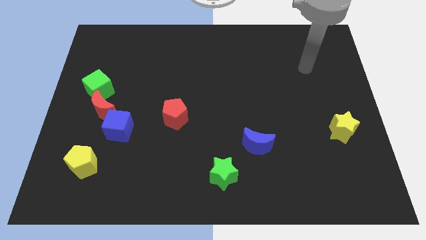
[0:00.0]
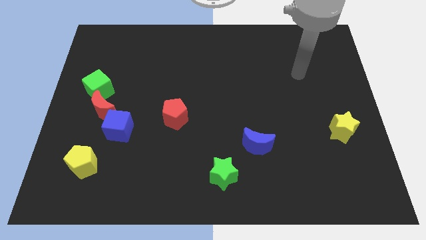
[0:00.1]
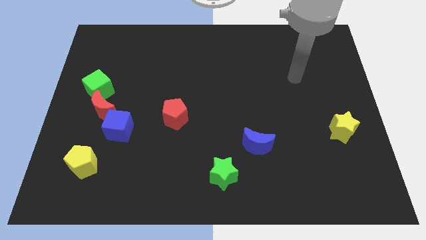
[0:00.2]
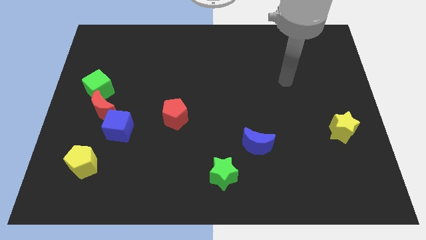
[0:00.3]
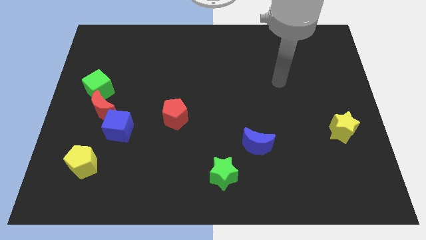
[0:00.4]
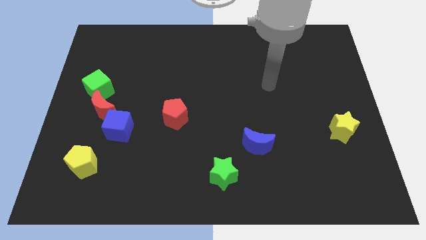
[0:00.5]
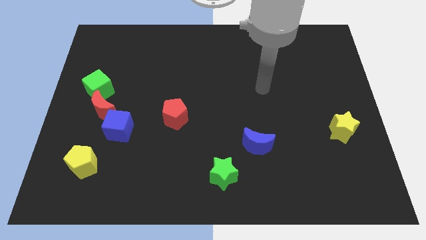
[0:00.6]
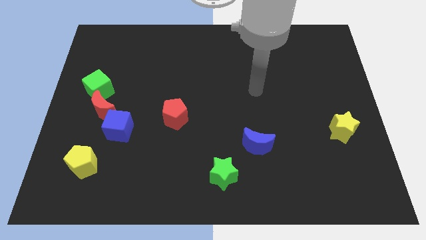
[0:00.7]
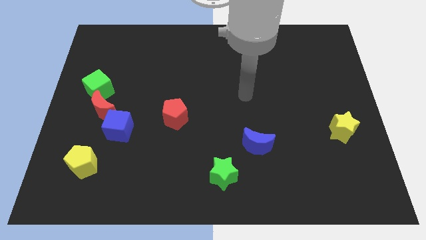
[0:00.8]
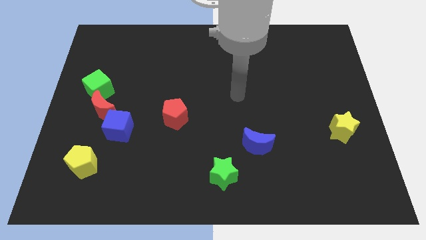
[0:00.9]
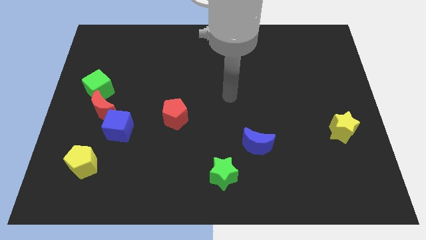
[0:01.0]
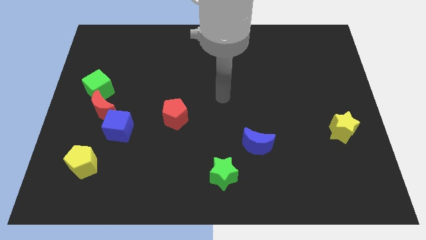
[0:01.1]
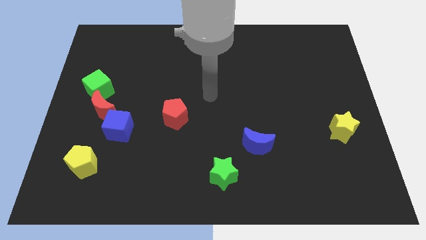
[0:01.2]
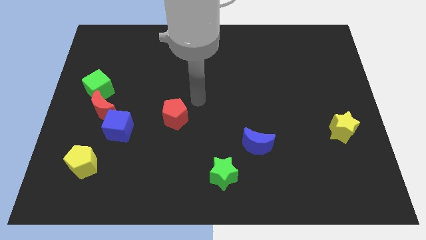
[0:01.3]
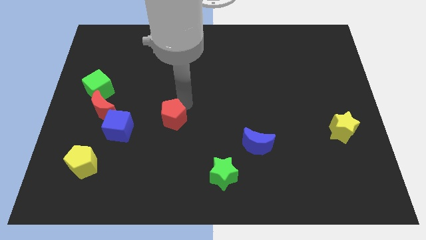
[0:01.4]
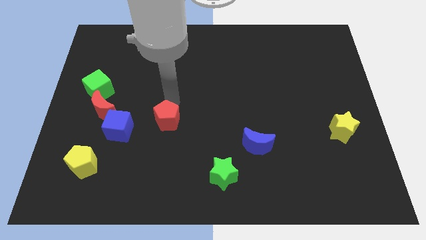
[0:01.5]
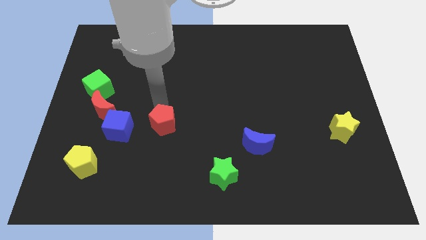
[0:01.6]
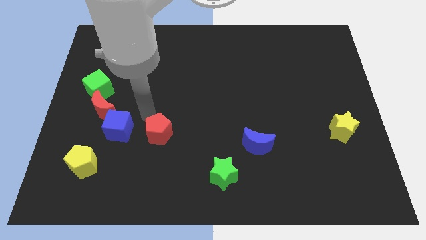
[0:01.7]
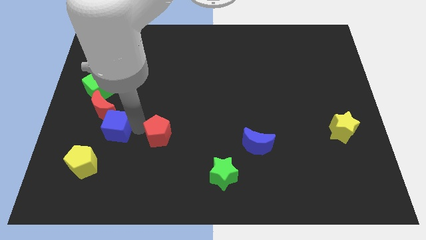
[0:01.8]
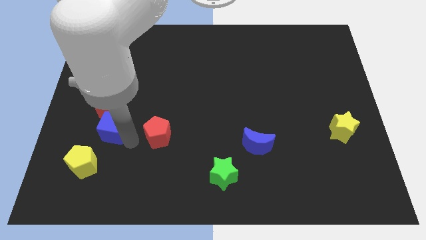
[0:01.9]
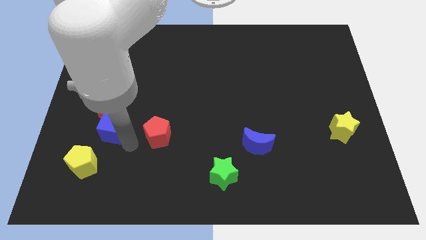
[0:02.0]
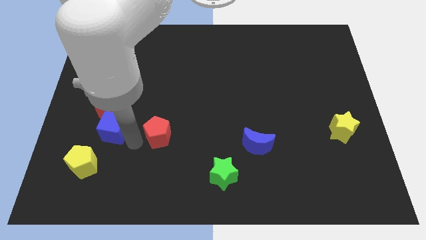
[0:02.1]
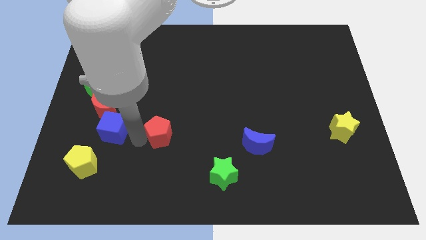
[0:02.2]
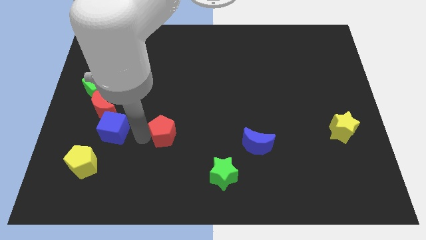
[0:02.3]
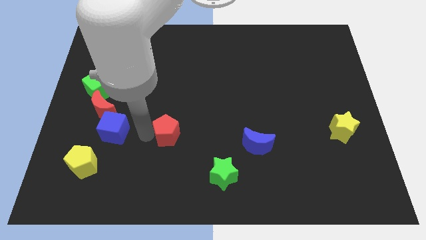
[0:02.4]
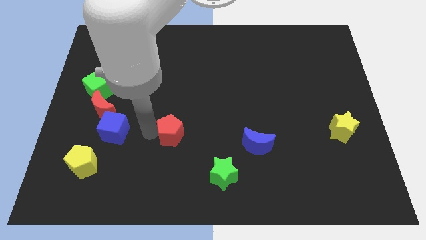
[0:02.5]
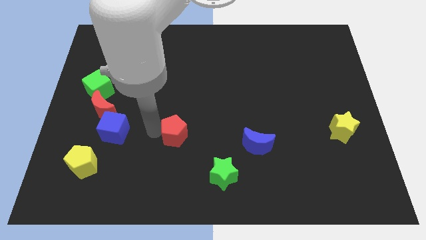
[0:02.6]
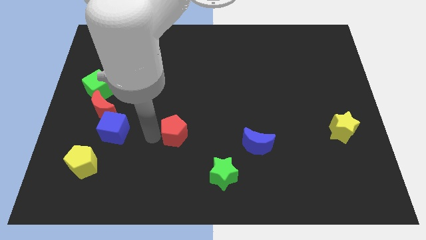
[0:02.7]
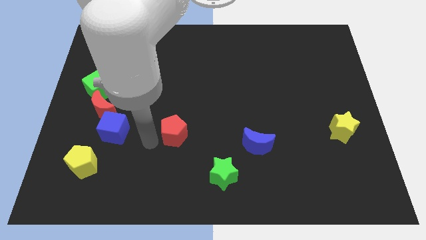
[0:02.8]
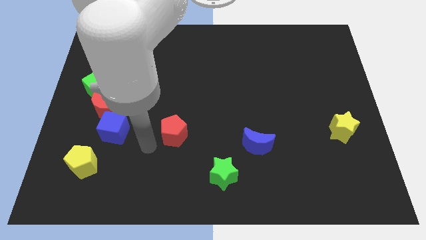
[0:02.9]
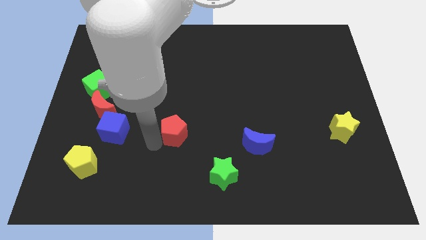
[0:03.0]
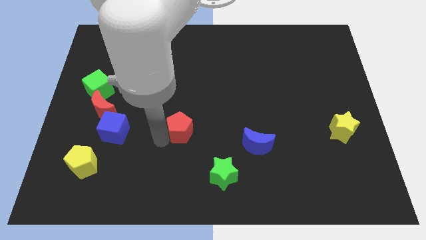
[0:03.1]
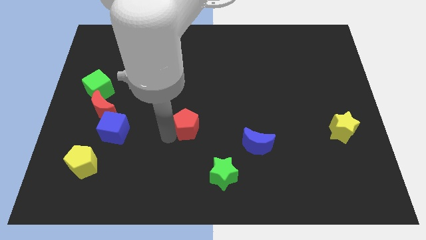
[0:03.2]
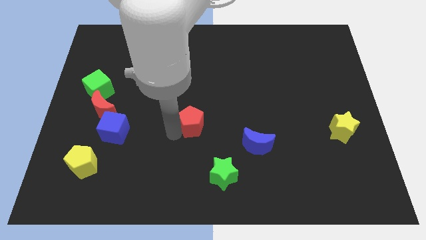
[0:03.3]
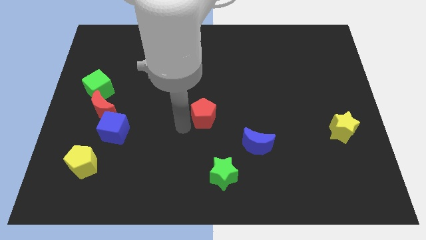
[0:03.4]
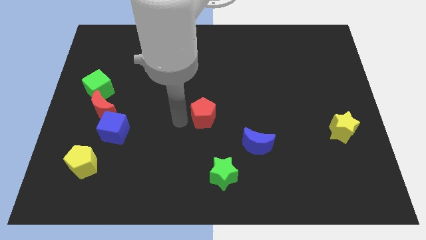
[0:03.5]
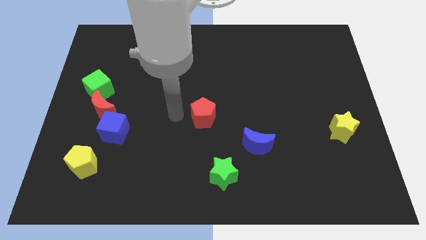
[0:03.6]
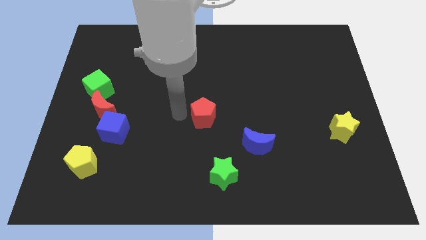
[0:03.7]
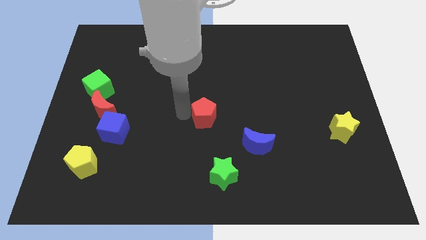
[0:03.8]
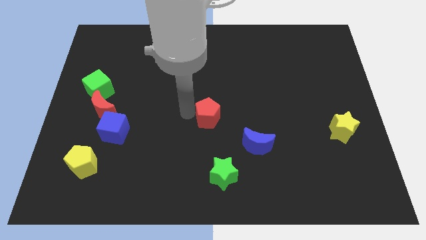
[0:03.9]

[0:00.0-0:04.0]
push the red pentagon somewhat to the right

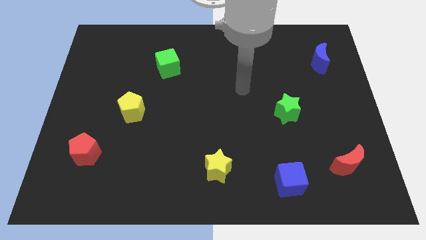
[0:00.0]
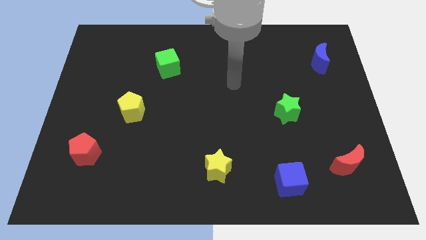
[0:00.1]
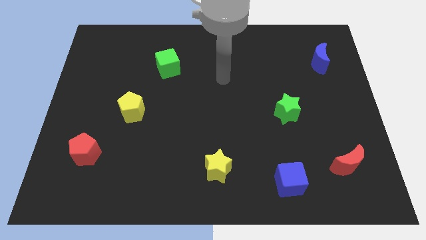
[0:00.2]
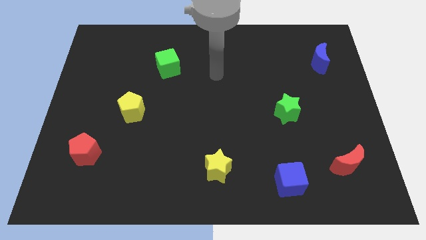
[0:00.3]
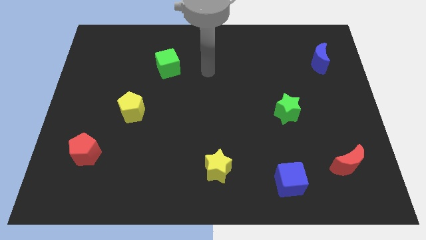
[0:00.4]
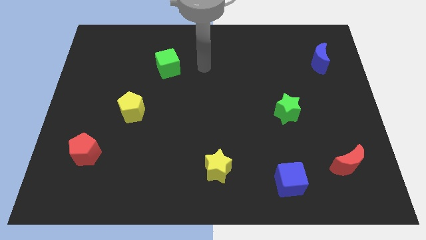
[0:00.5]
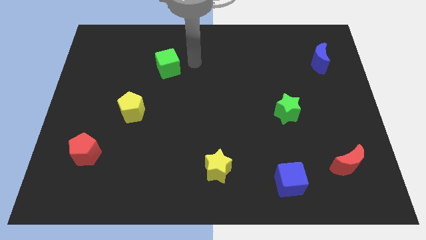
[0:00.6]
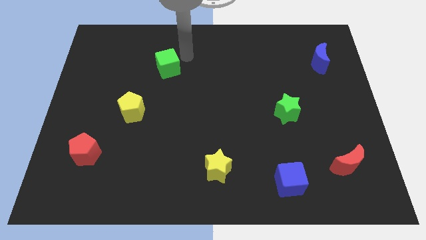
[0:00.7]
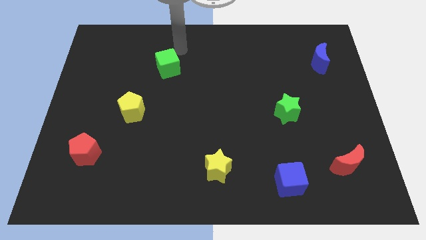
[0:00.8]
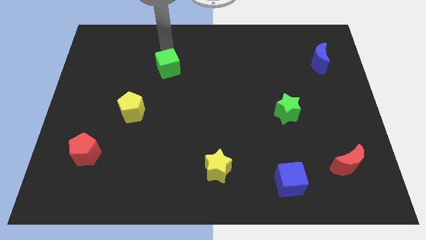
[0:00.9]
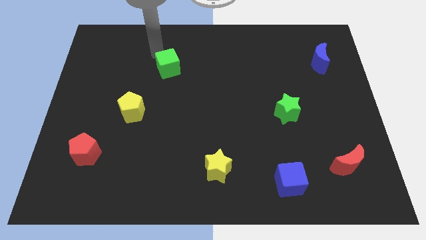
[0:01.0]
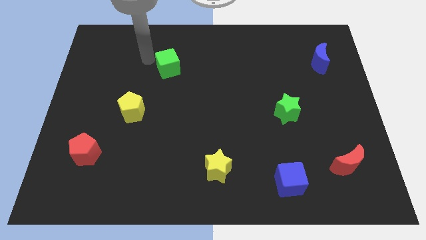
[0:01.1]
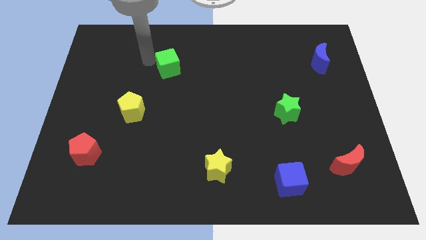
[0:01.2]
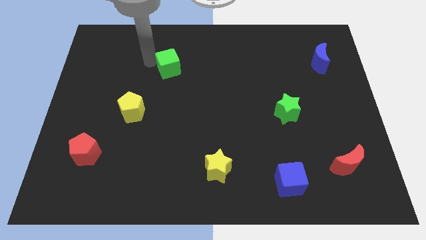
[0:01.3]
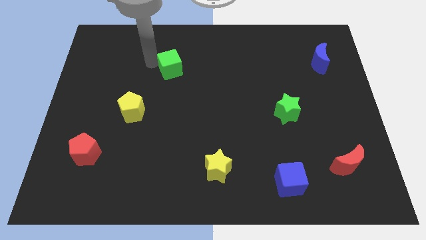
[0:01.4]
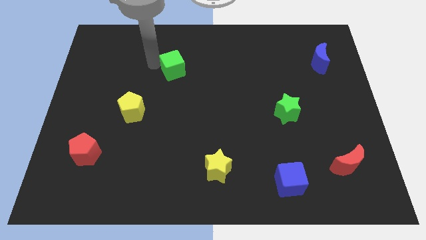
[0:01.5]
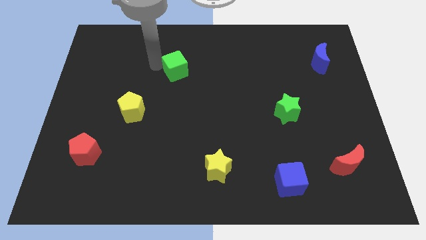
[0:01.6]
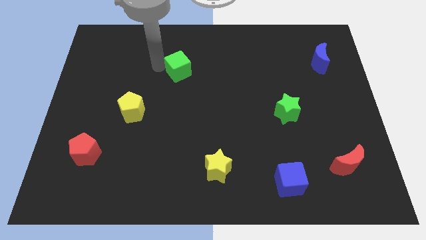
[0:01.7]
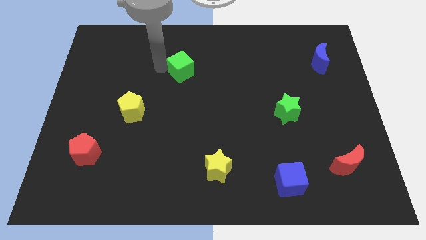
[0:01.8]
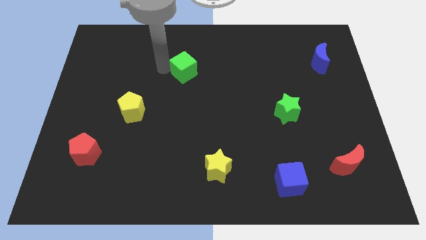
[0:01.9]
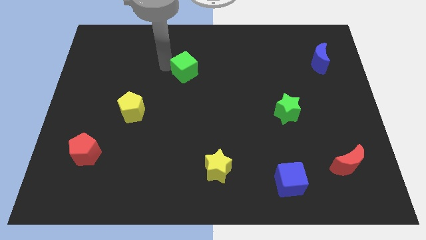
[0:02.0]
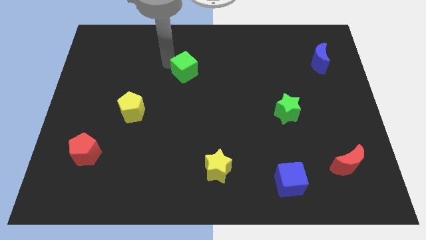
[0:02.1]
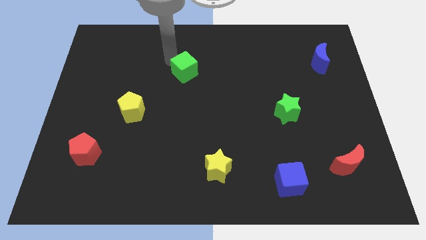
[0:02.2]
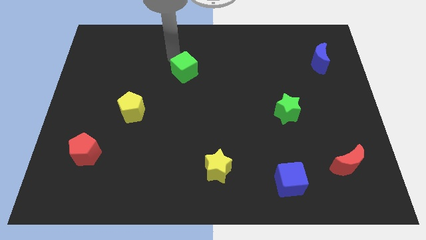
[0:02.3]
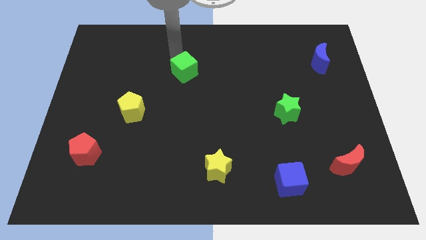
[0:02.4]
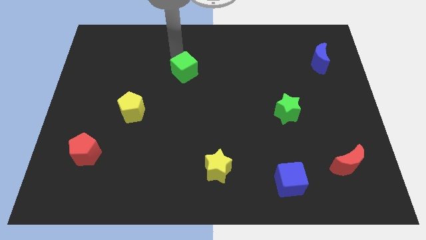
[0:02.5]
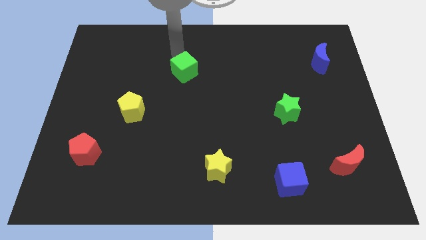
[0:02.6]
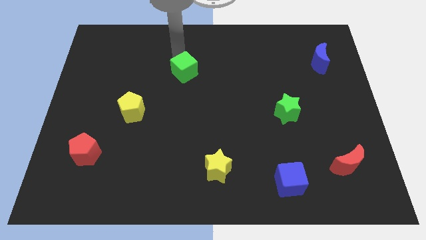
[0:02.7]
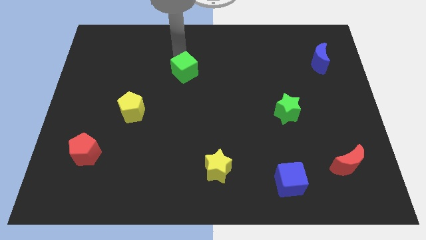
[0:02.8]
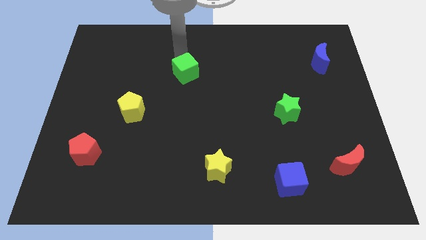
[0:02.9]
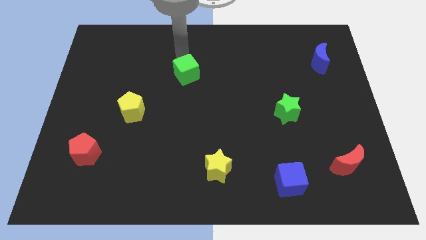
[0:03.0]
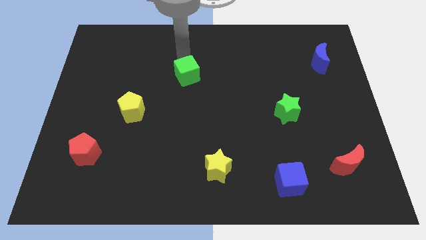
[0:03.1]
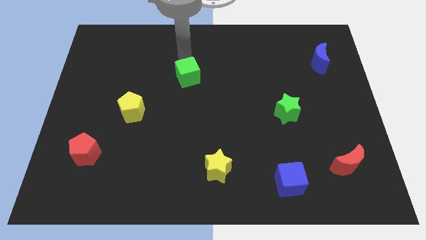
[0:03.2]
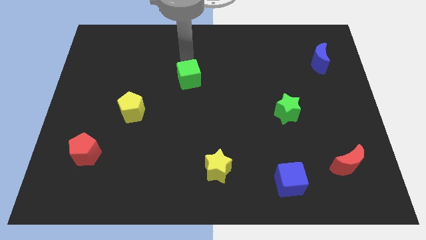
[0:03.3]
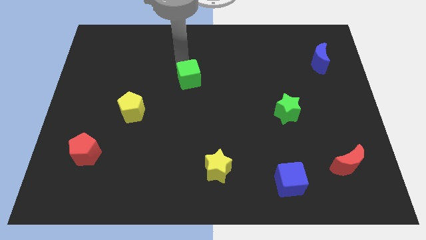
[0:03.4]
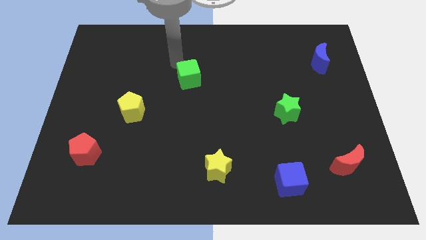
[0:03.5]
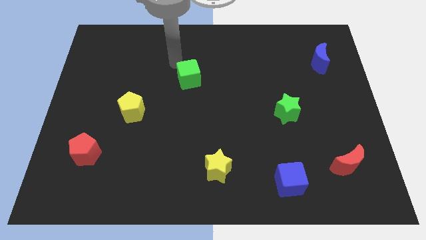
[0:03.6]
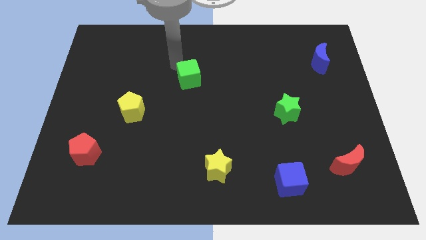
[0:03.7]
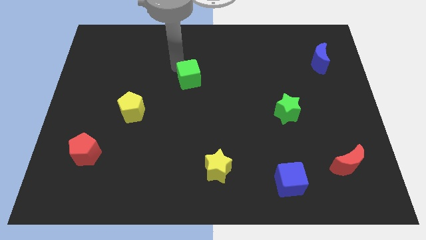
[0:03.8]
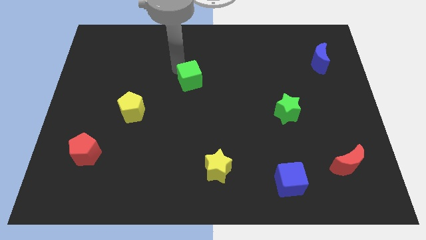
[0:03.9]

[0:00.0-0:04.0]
slide the green cube downwards and to the right diagonally a little
